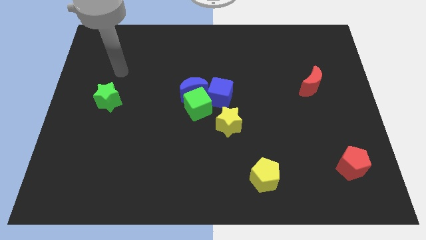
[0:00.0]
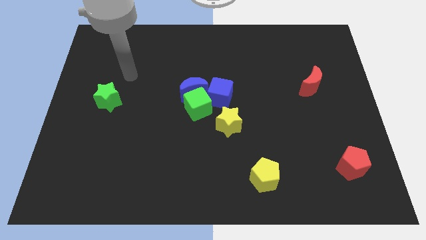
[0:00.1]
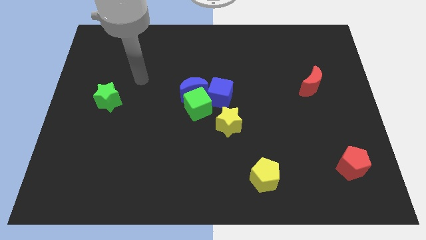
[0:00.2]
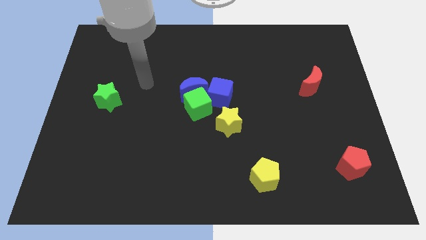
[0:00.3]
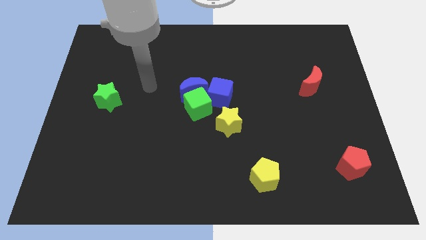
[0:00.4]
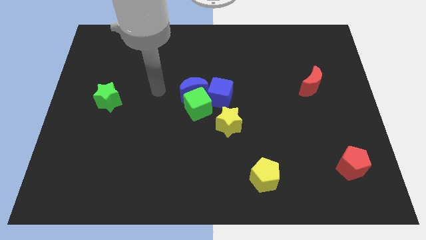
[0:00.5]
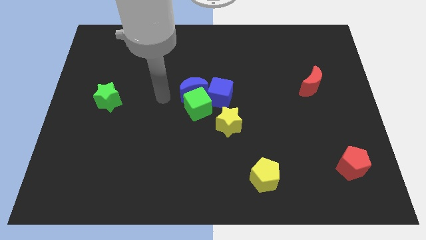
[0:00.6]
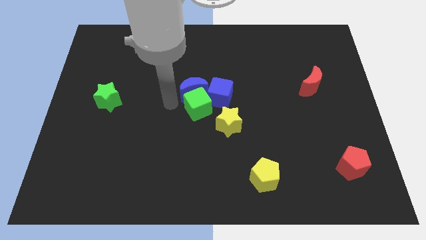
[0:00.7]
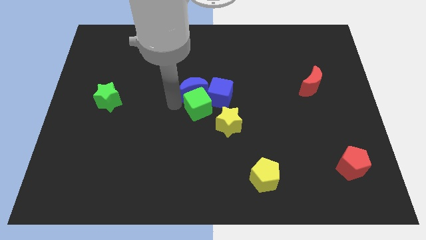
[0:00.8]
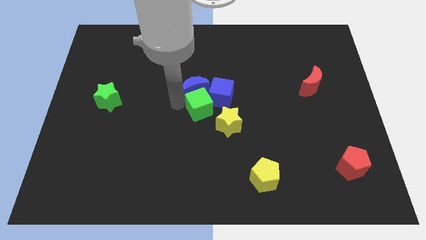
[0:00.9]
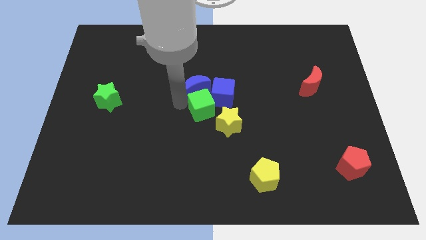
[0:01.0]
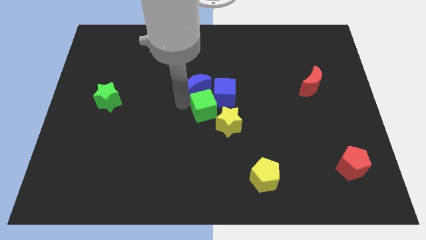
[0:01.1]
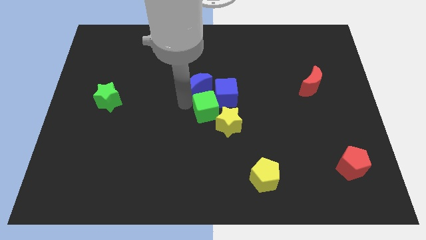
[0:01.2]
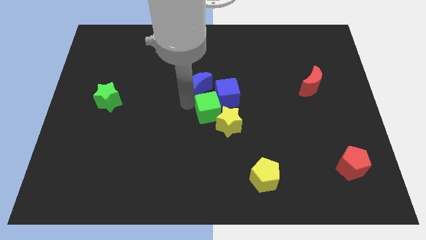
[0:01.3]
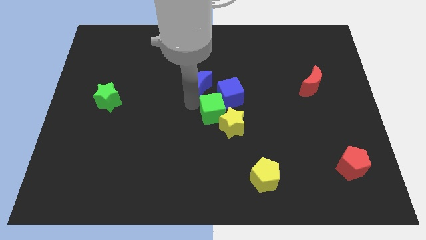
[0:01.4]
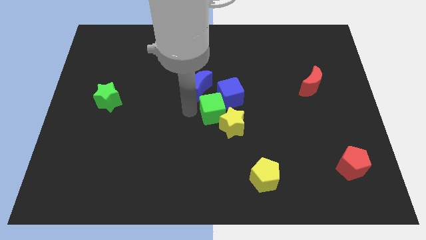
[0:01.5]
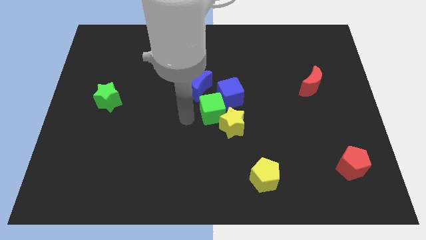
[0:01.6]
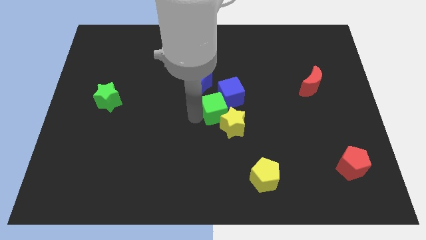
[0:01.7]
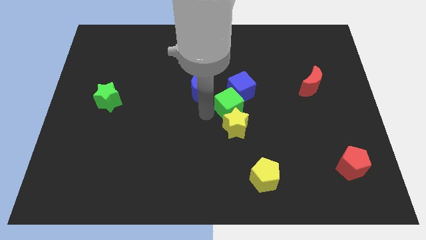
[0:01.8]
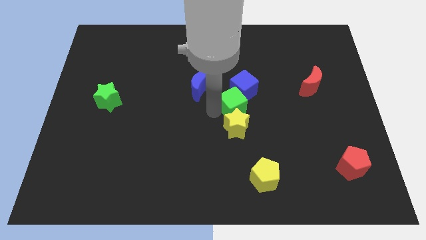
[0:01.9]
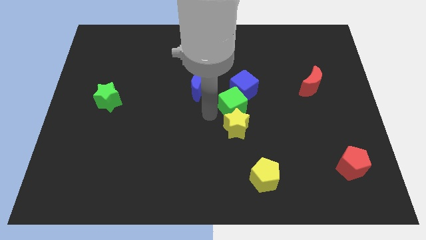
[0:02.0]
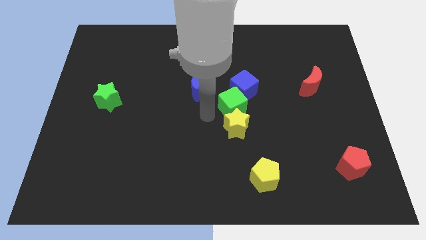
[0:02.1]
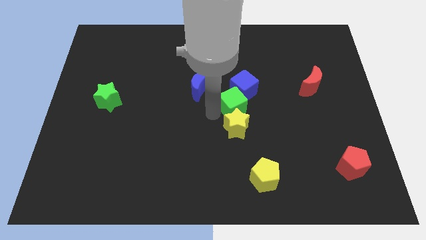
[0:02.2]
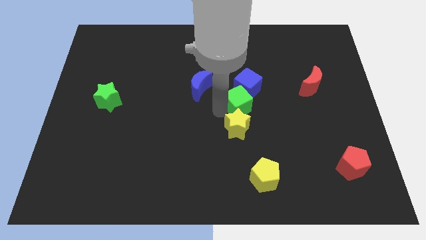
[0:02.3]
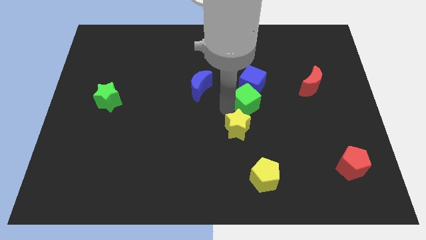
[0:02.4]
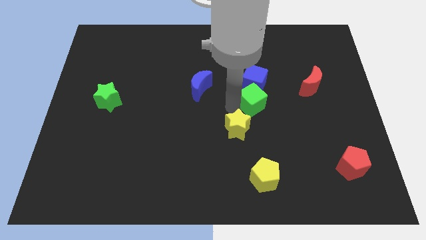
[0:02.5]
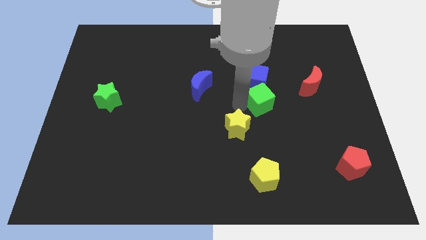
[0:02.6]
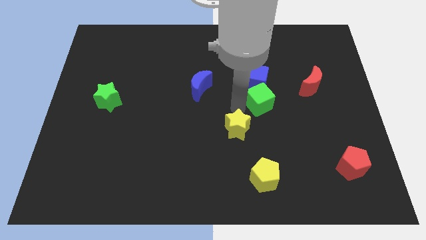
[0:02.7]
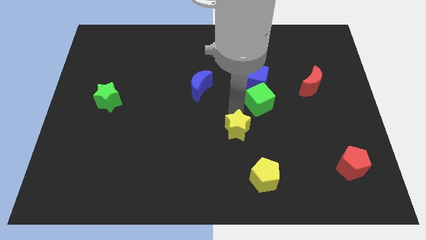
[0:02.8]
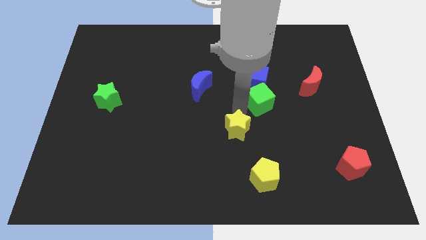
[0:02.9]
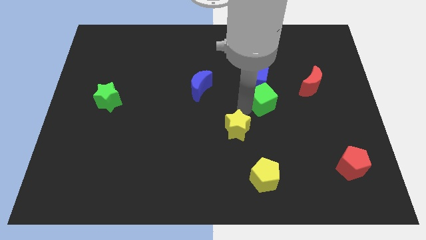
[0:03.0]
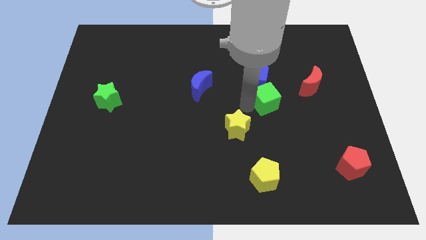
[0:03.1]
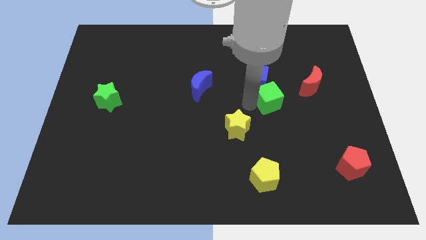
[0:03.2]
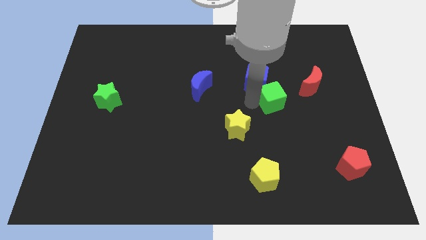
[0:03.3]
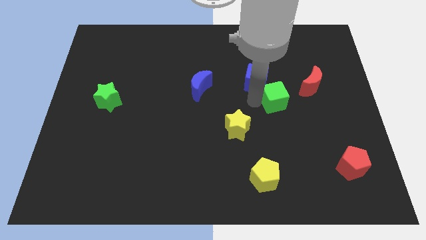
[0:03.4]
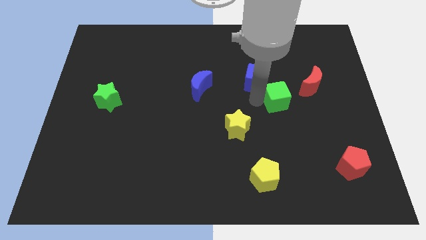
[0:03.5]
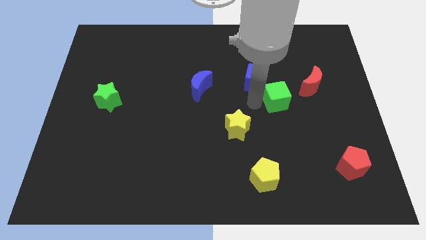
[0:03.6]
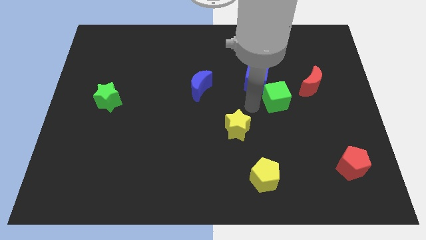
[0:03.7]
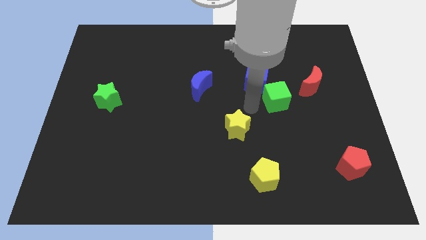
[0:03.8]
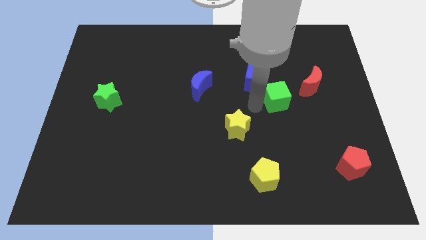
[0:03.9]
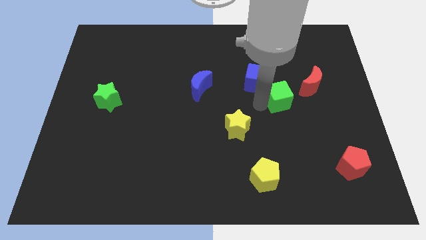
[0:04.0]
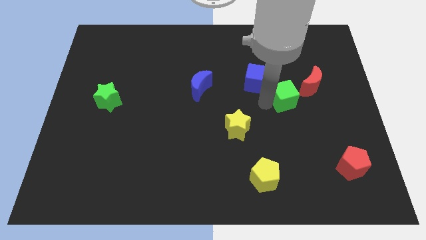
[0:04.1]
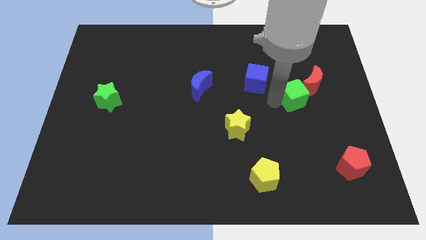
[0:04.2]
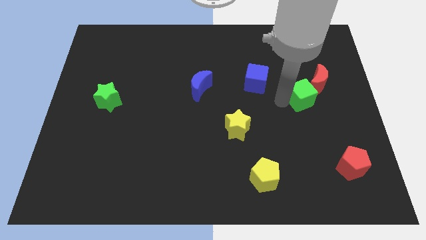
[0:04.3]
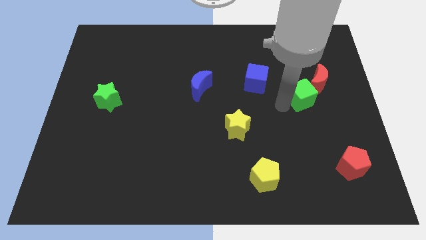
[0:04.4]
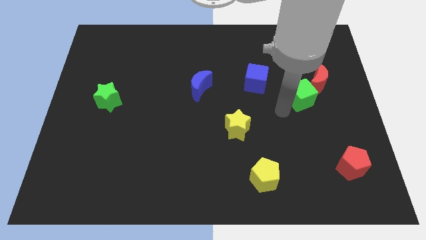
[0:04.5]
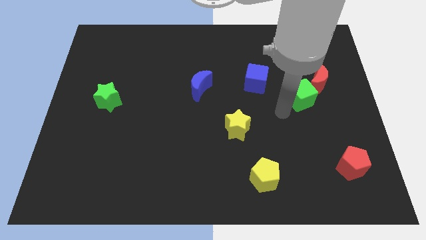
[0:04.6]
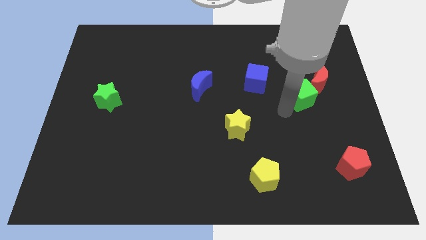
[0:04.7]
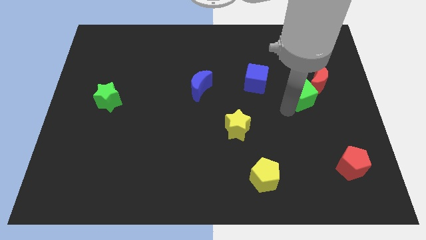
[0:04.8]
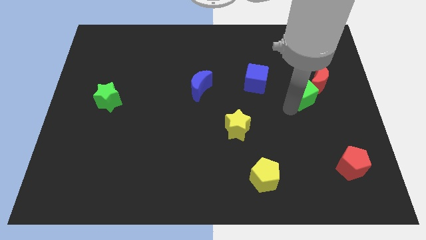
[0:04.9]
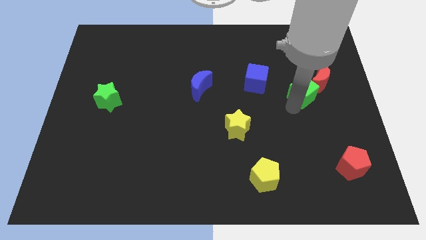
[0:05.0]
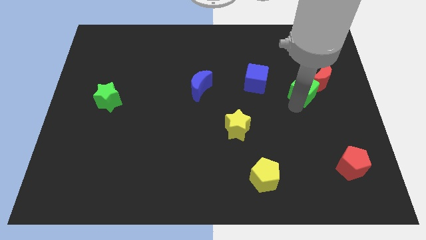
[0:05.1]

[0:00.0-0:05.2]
move the green cube towards the red moon

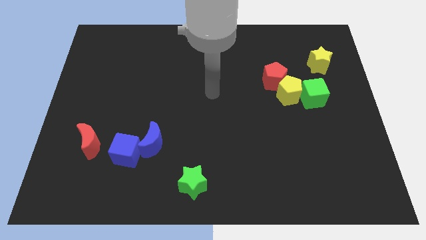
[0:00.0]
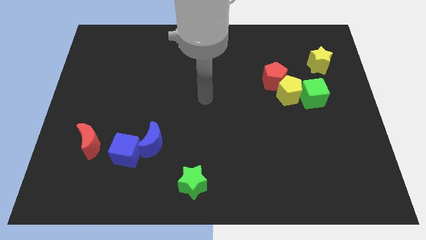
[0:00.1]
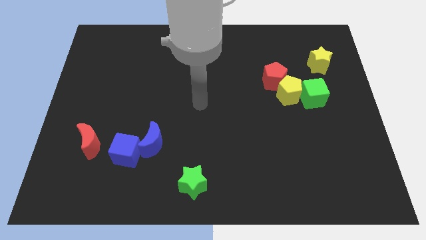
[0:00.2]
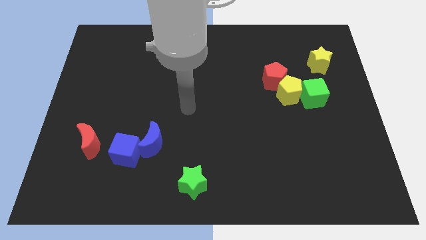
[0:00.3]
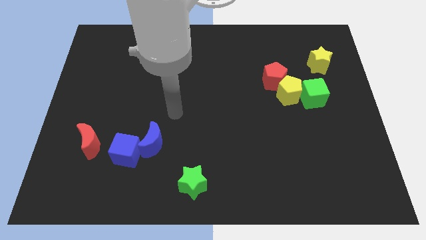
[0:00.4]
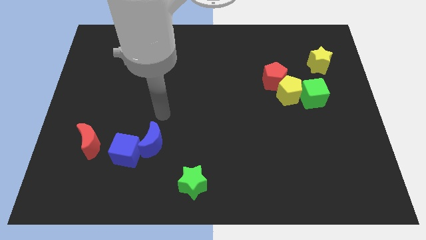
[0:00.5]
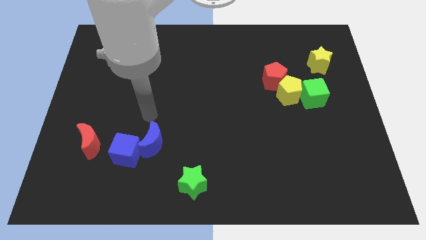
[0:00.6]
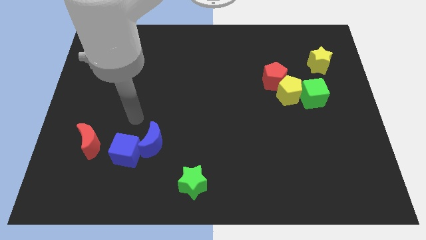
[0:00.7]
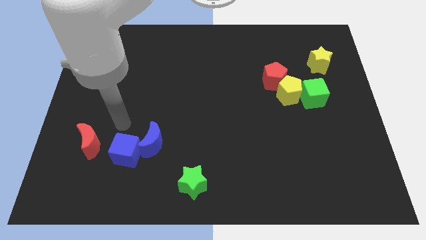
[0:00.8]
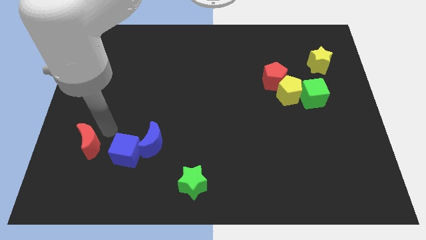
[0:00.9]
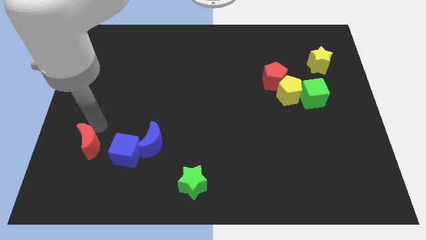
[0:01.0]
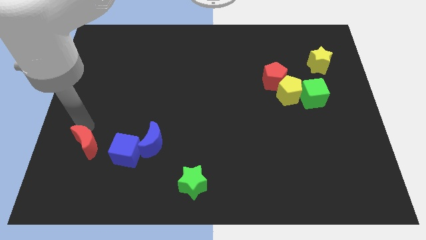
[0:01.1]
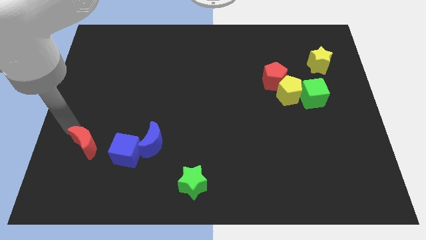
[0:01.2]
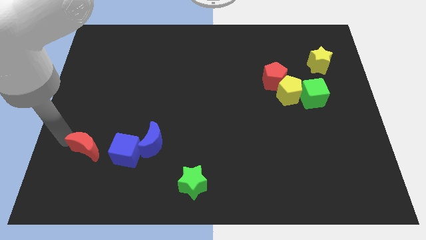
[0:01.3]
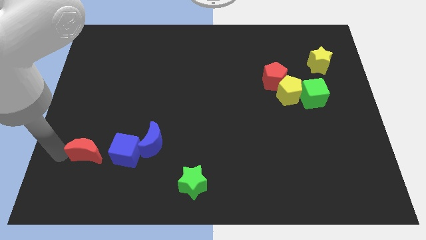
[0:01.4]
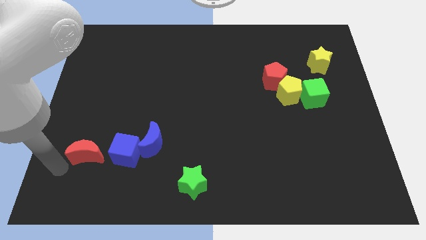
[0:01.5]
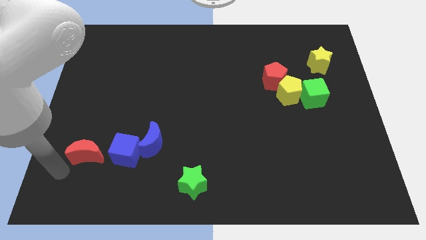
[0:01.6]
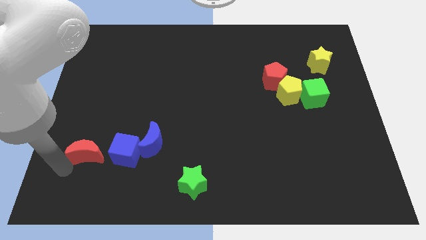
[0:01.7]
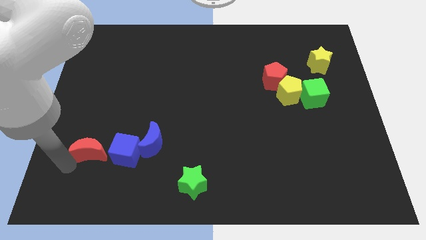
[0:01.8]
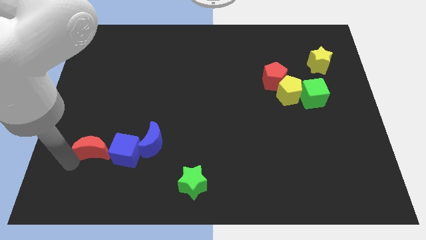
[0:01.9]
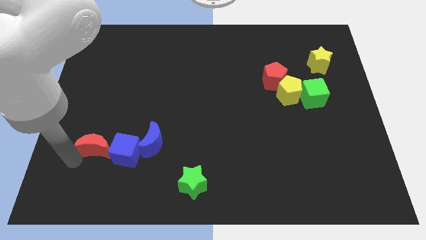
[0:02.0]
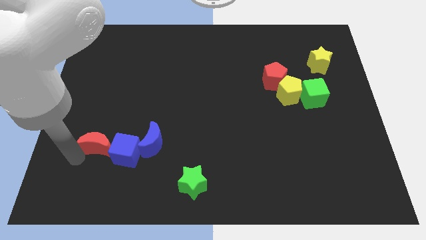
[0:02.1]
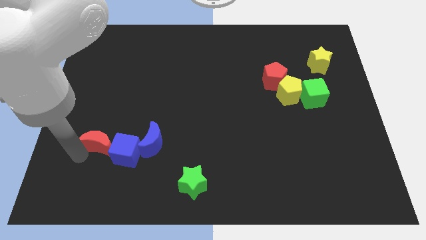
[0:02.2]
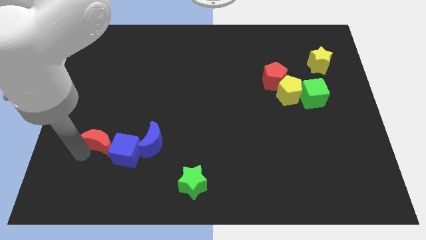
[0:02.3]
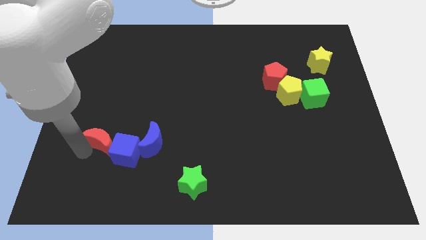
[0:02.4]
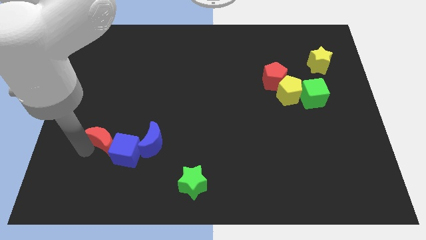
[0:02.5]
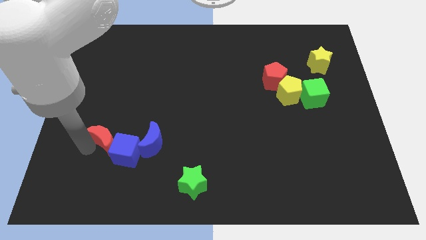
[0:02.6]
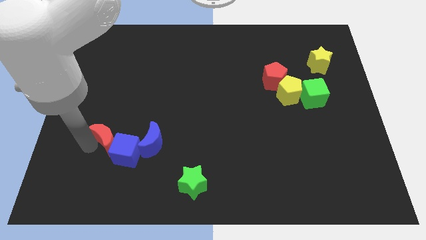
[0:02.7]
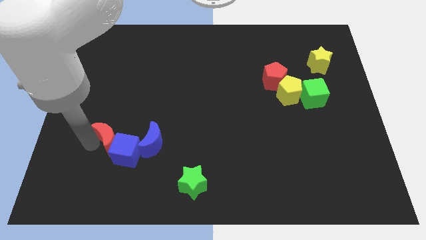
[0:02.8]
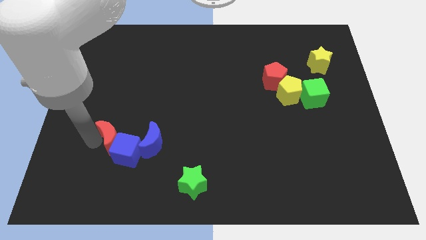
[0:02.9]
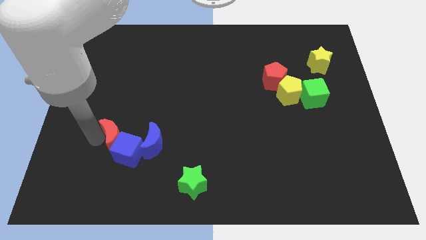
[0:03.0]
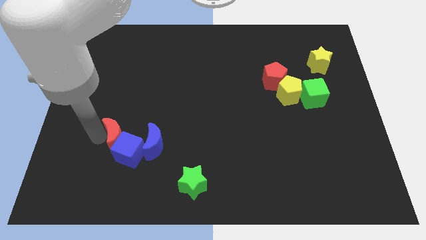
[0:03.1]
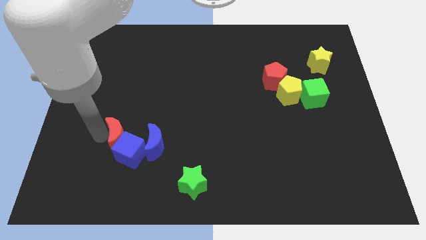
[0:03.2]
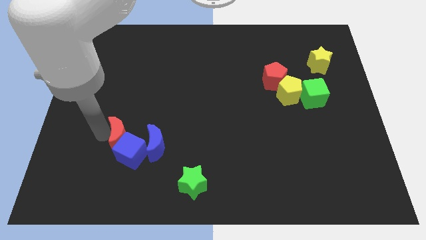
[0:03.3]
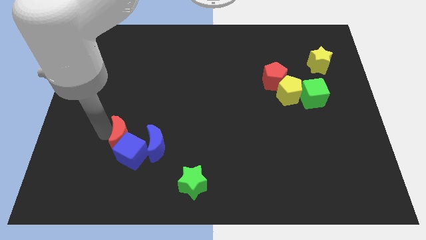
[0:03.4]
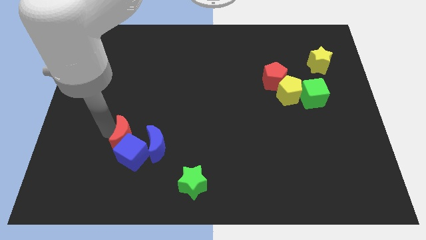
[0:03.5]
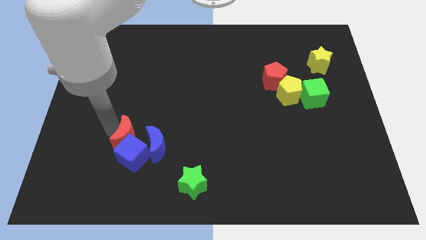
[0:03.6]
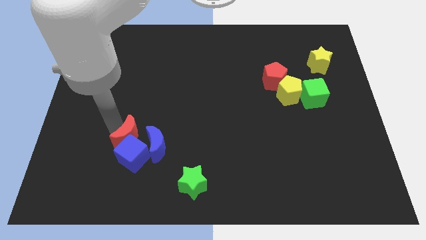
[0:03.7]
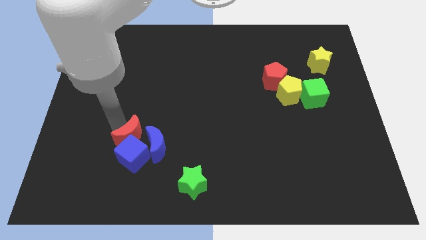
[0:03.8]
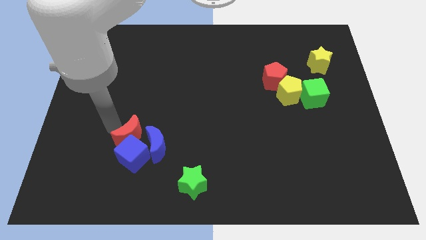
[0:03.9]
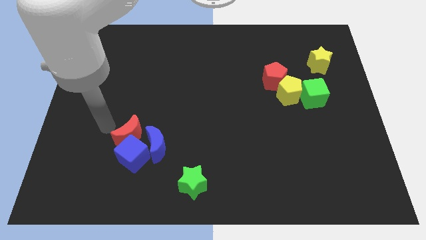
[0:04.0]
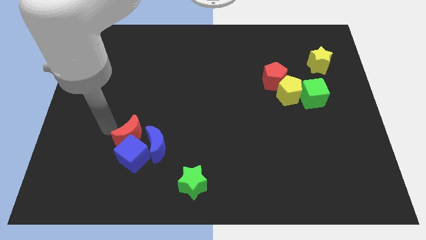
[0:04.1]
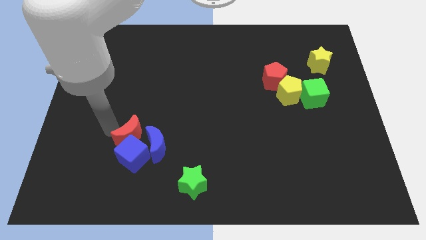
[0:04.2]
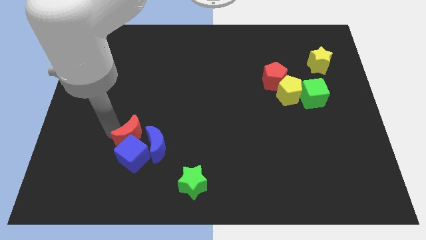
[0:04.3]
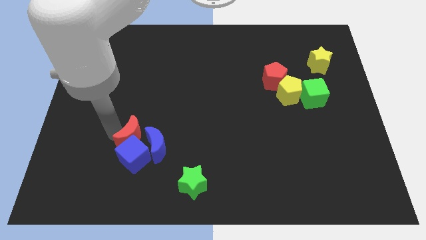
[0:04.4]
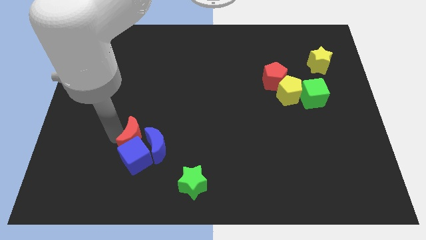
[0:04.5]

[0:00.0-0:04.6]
slide the red moon towards the blue moon
